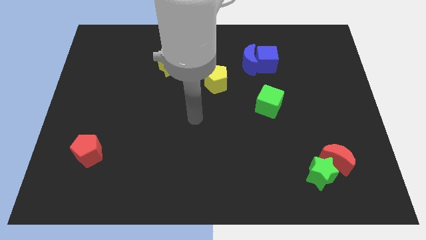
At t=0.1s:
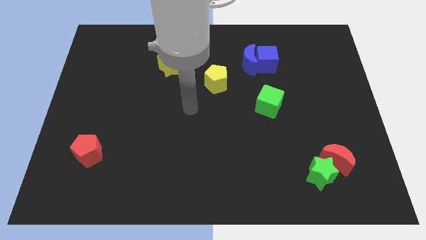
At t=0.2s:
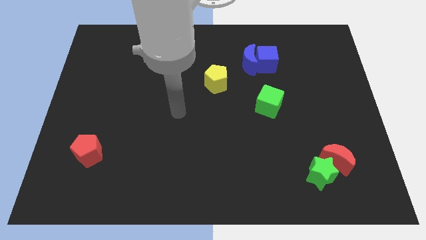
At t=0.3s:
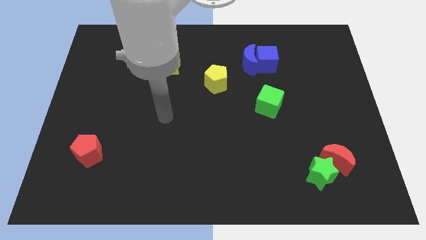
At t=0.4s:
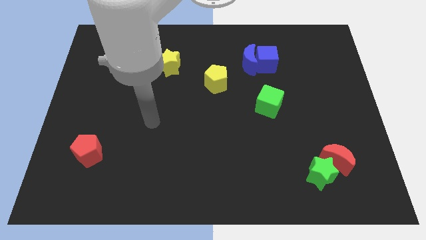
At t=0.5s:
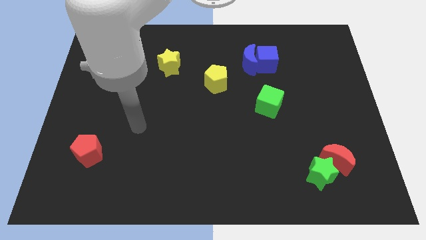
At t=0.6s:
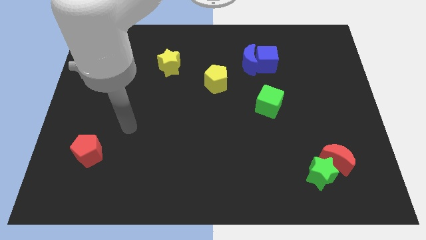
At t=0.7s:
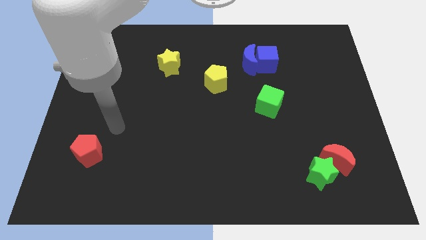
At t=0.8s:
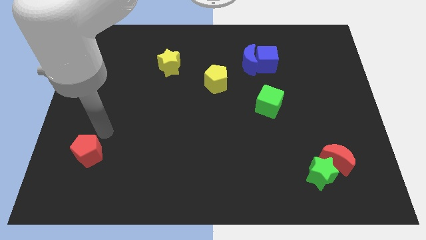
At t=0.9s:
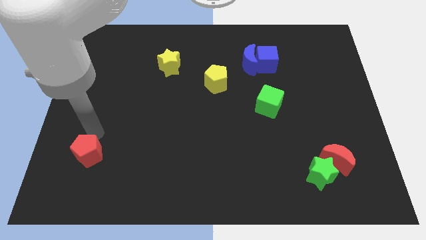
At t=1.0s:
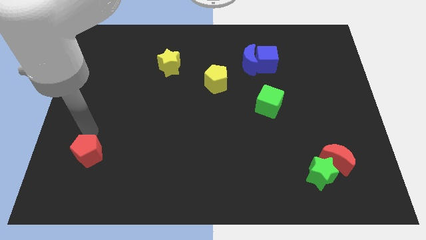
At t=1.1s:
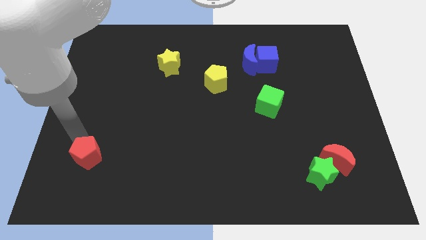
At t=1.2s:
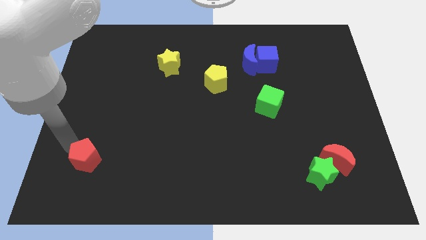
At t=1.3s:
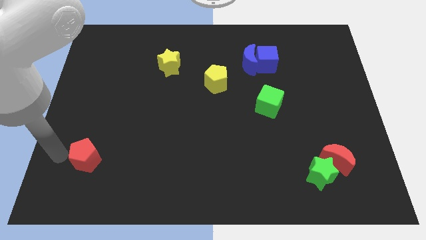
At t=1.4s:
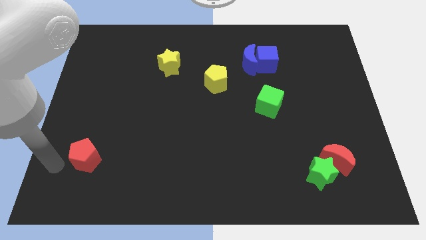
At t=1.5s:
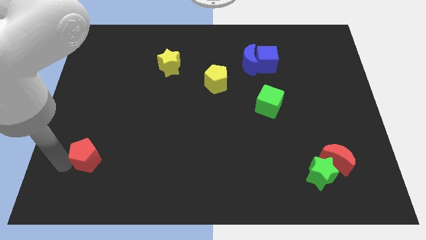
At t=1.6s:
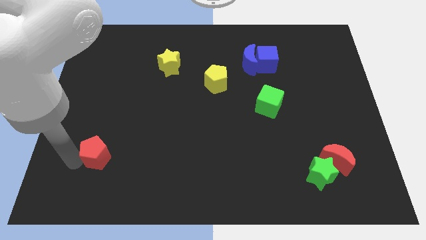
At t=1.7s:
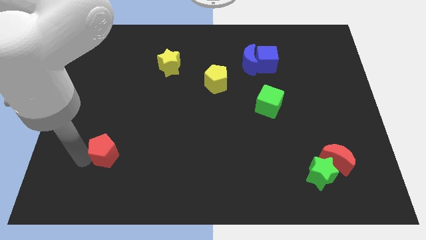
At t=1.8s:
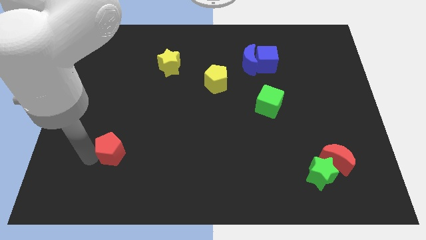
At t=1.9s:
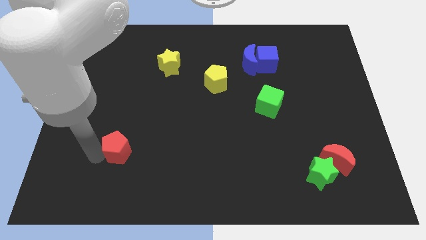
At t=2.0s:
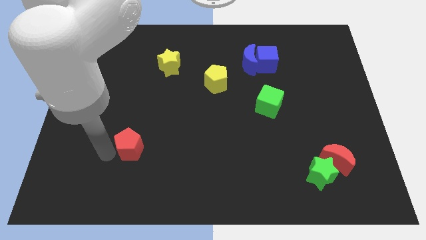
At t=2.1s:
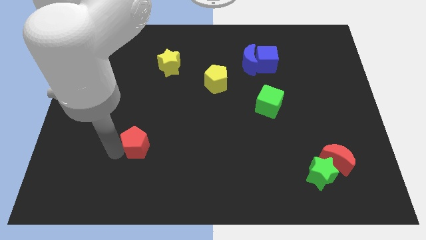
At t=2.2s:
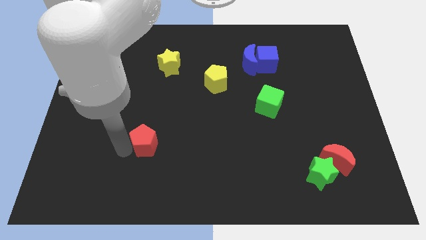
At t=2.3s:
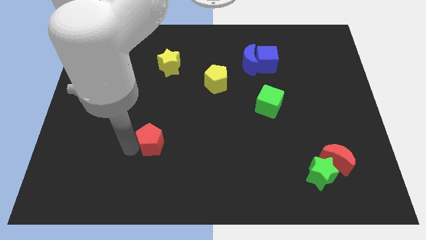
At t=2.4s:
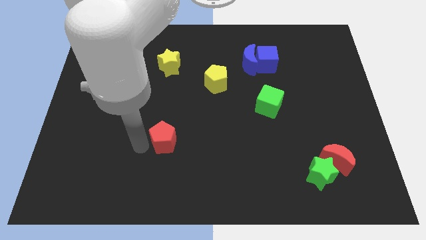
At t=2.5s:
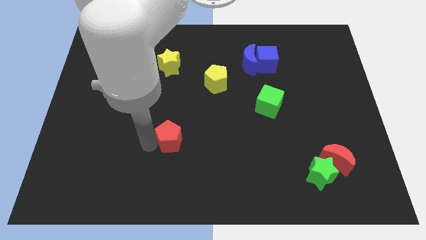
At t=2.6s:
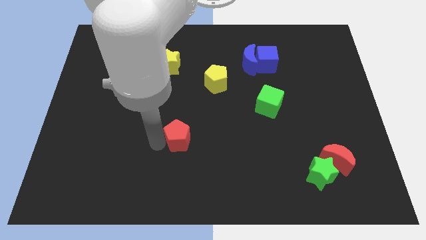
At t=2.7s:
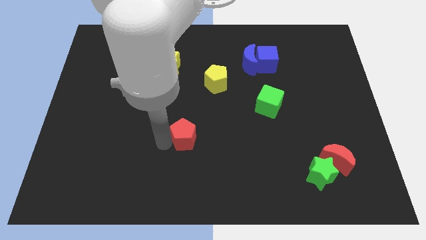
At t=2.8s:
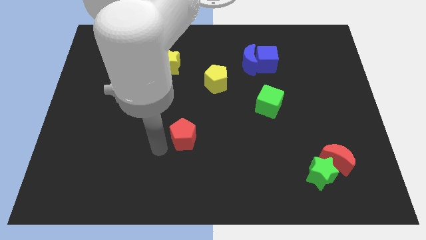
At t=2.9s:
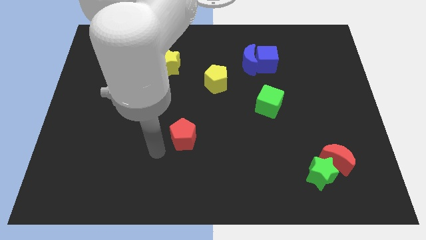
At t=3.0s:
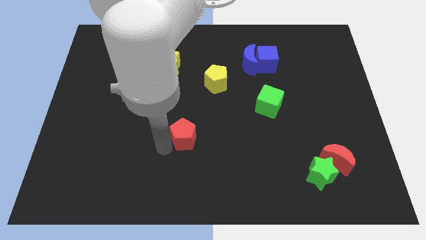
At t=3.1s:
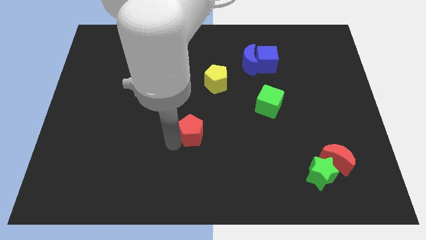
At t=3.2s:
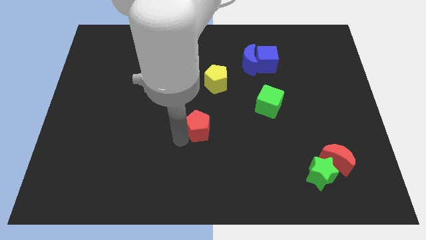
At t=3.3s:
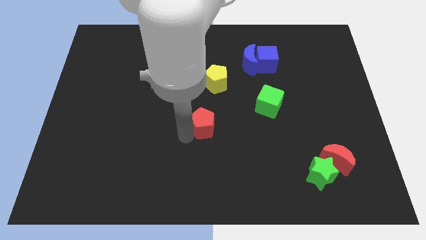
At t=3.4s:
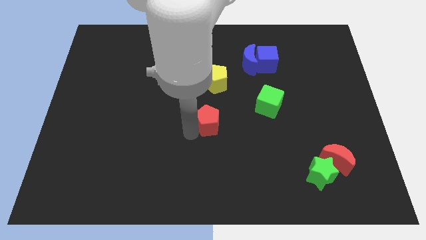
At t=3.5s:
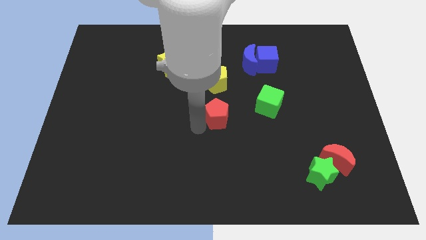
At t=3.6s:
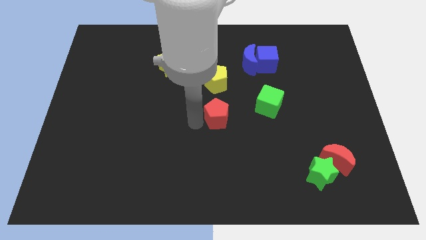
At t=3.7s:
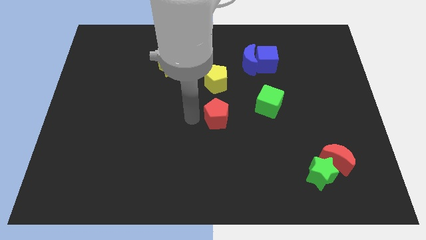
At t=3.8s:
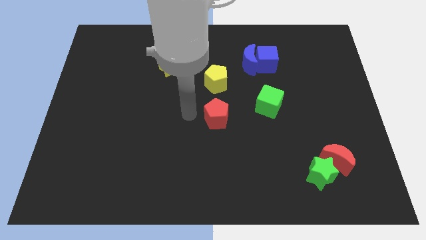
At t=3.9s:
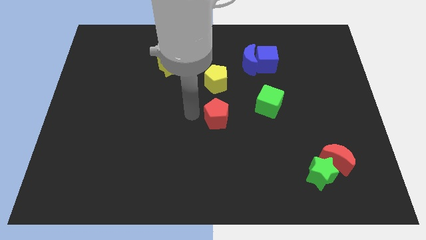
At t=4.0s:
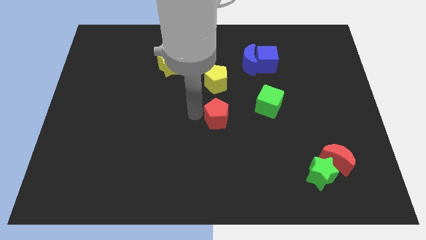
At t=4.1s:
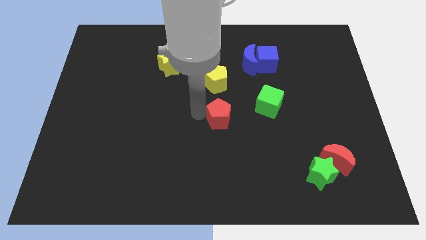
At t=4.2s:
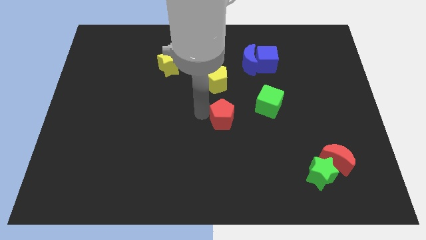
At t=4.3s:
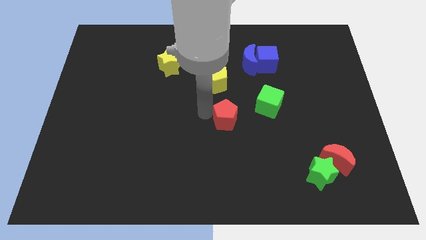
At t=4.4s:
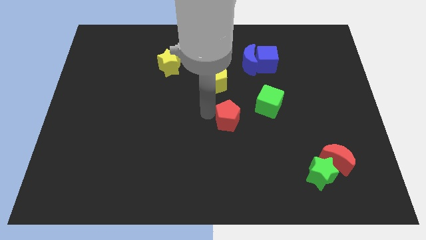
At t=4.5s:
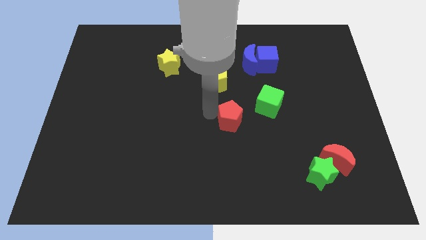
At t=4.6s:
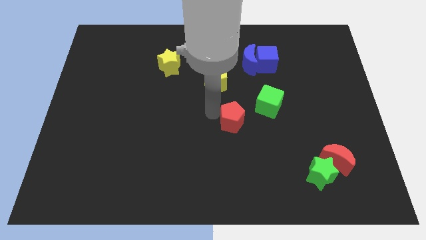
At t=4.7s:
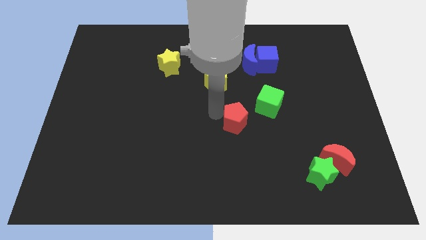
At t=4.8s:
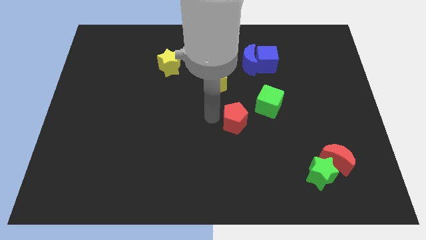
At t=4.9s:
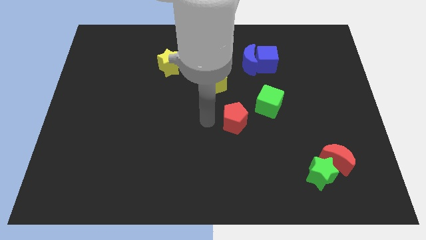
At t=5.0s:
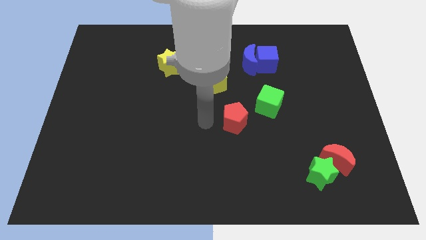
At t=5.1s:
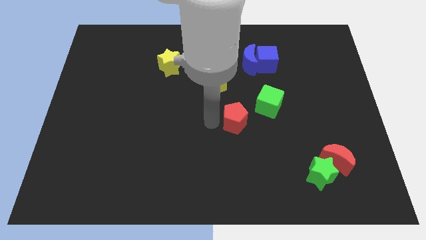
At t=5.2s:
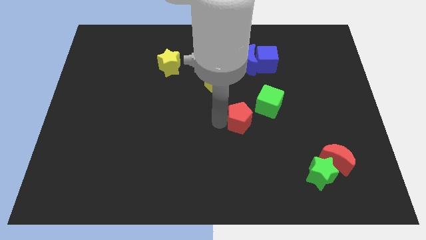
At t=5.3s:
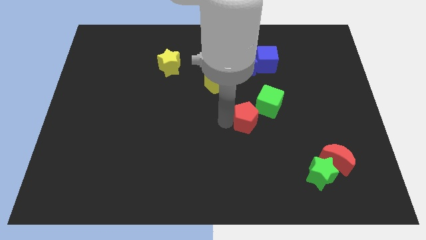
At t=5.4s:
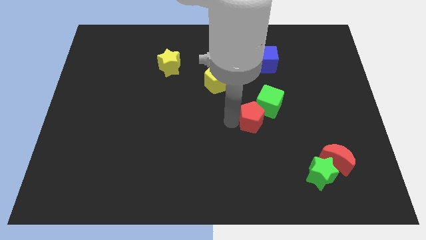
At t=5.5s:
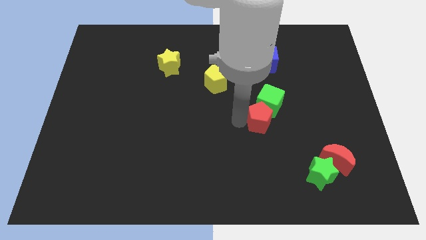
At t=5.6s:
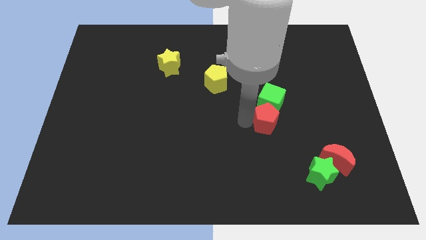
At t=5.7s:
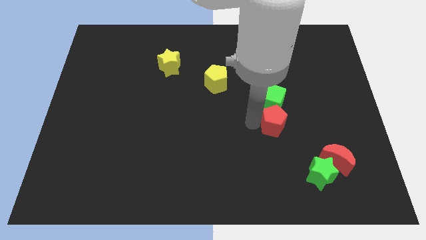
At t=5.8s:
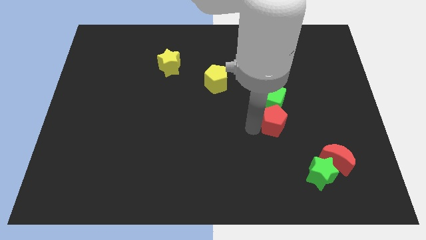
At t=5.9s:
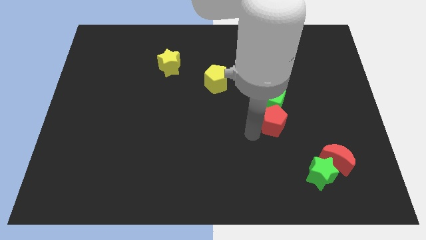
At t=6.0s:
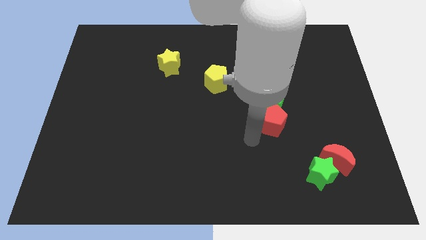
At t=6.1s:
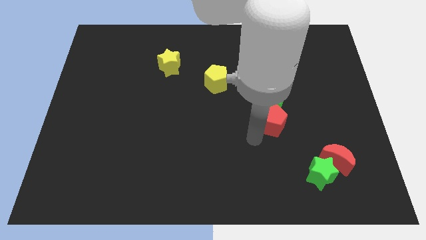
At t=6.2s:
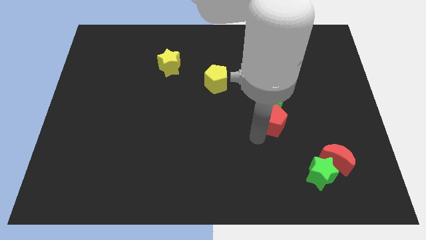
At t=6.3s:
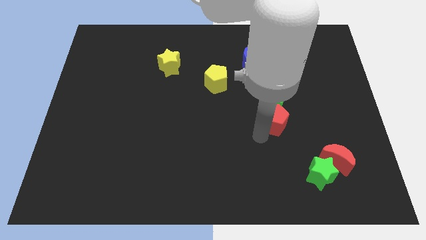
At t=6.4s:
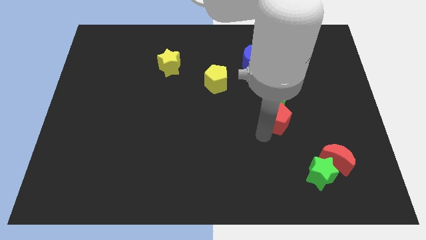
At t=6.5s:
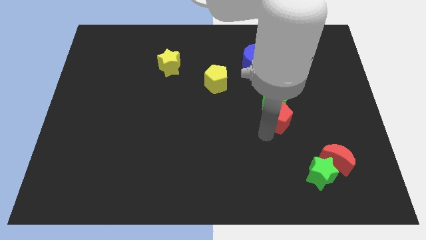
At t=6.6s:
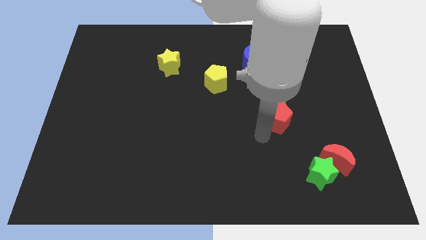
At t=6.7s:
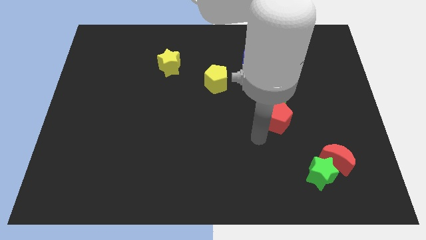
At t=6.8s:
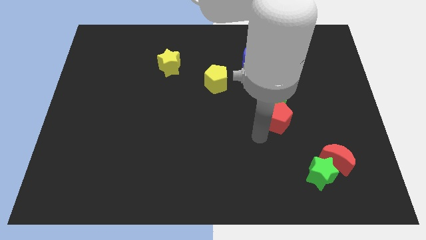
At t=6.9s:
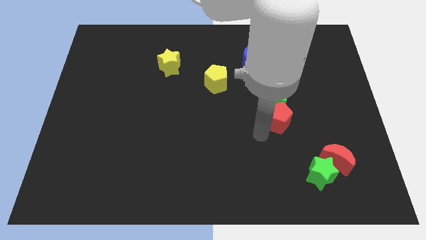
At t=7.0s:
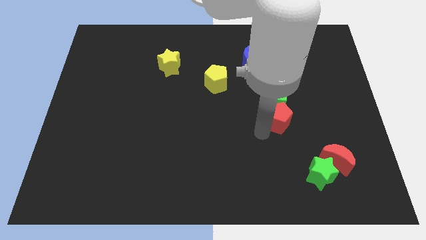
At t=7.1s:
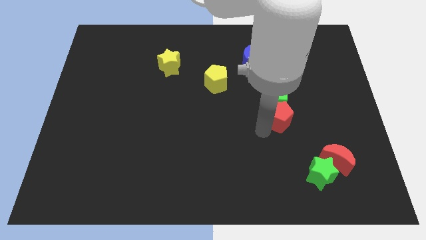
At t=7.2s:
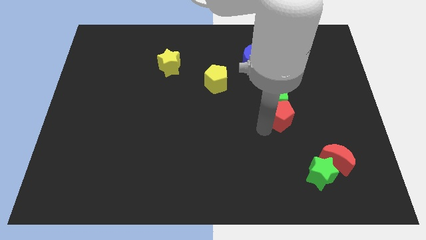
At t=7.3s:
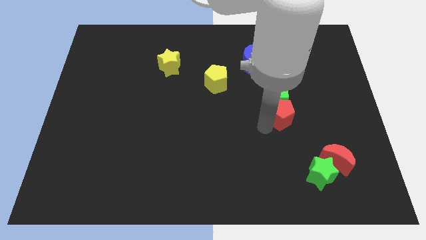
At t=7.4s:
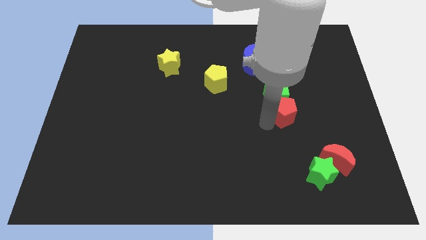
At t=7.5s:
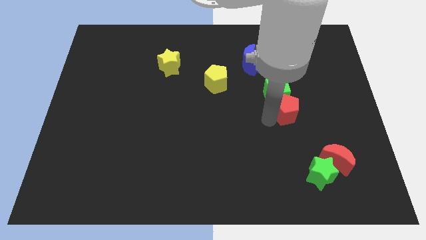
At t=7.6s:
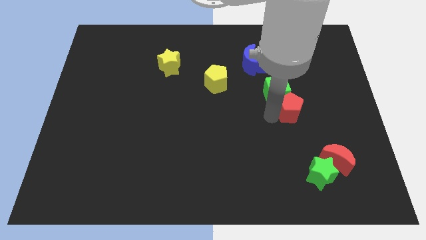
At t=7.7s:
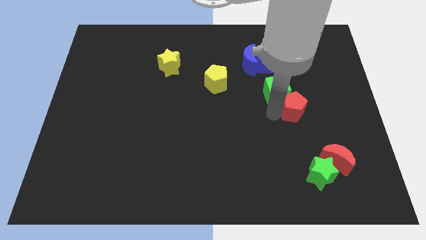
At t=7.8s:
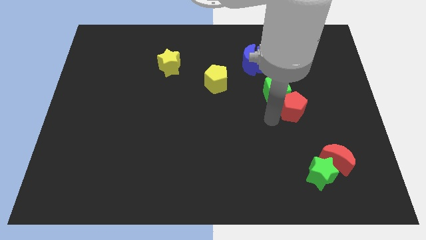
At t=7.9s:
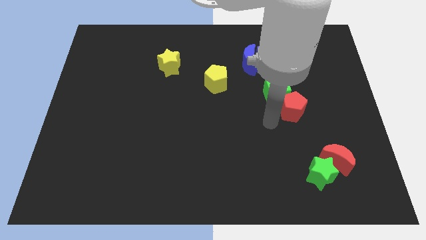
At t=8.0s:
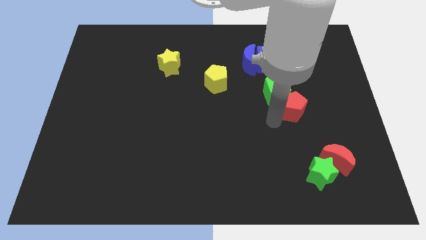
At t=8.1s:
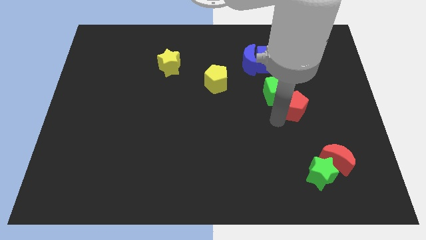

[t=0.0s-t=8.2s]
move the red pentagon right of the green cube
